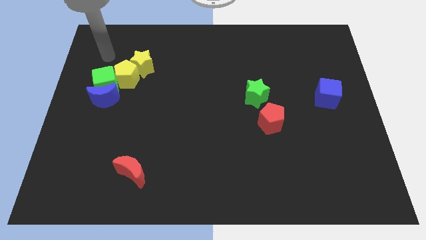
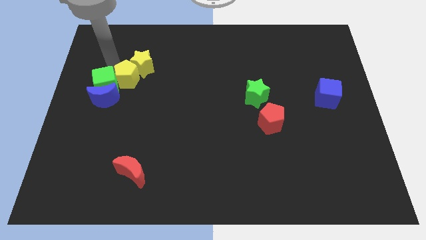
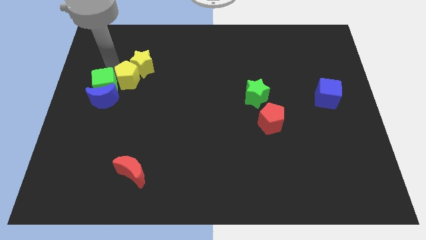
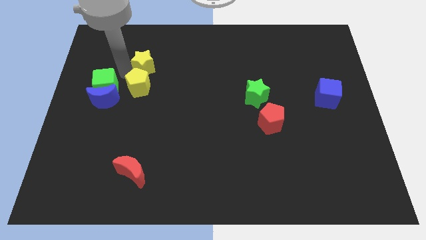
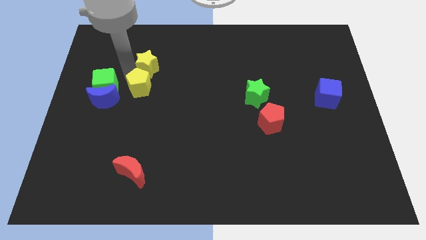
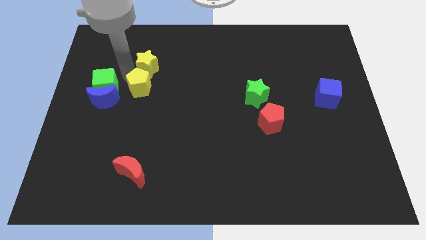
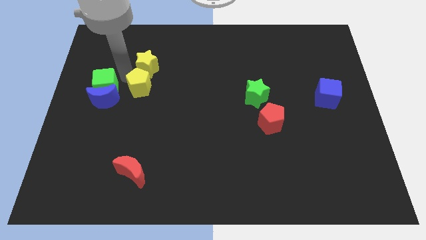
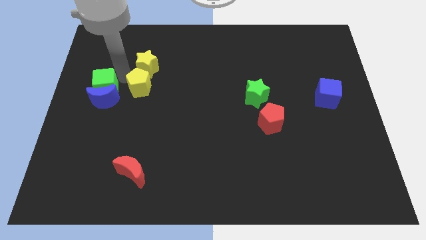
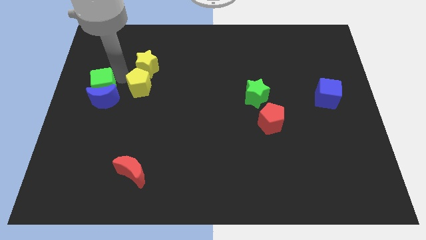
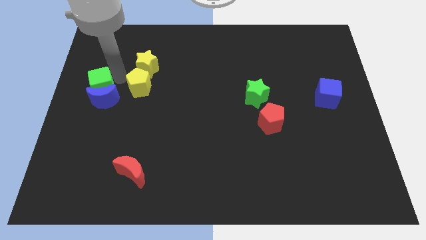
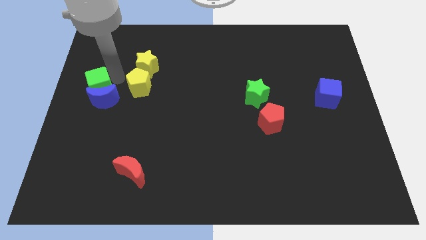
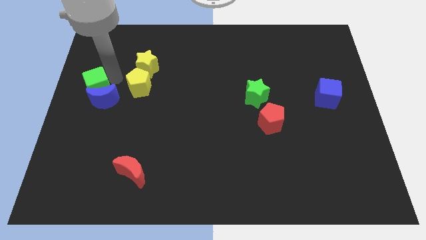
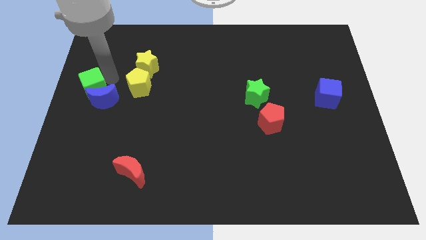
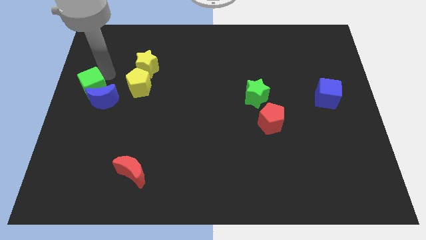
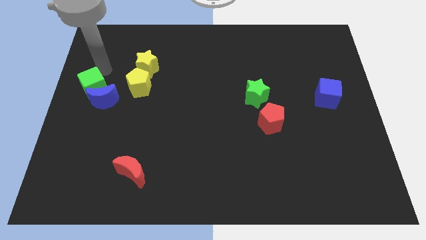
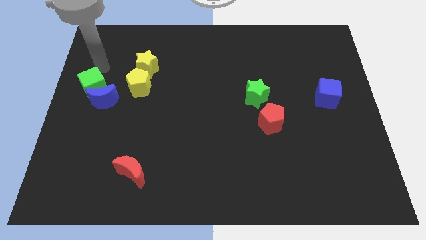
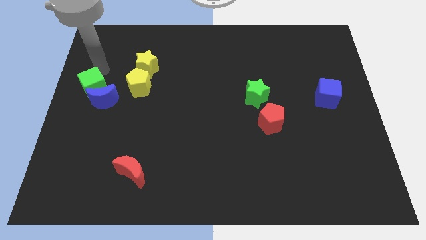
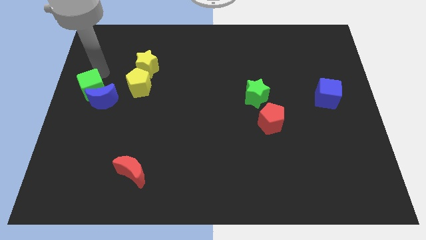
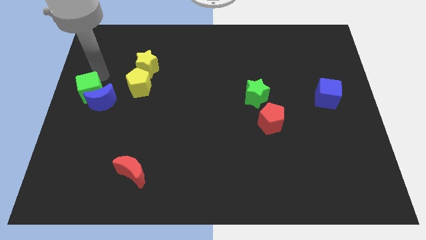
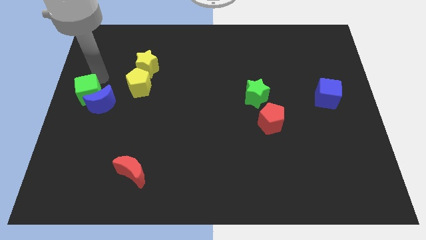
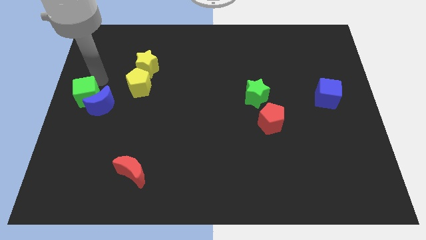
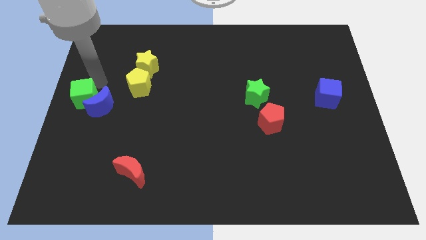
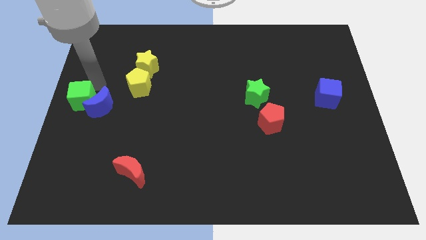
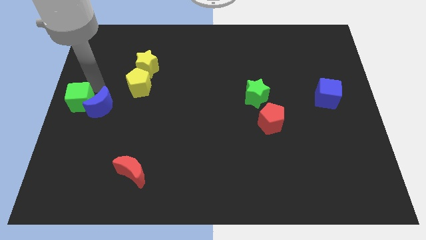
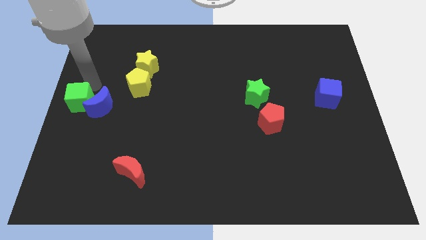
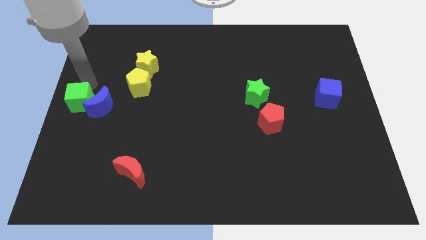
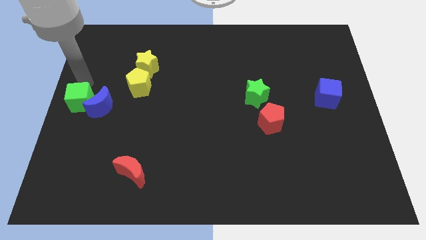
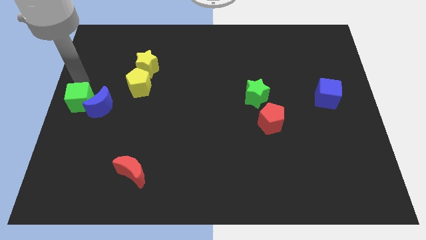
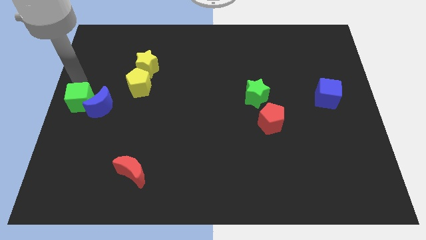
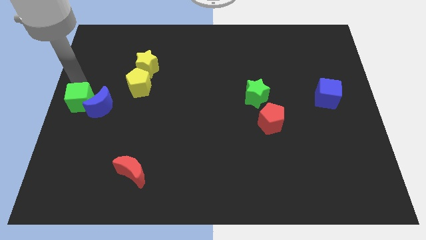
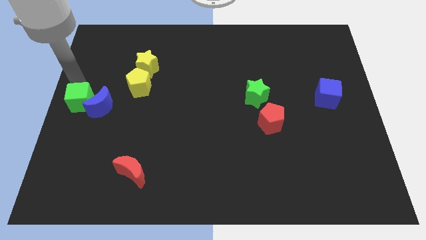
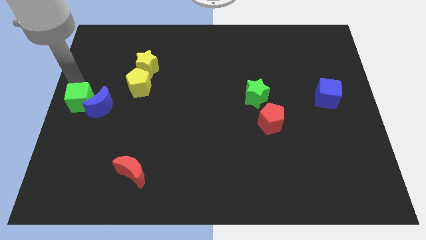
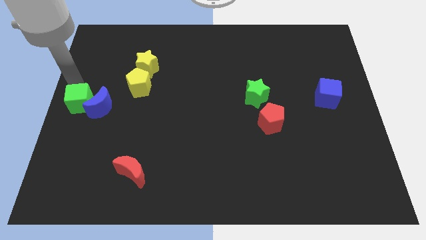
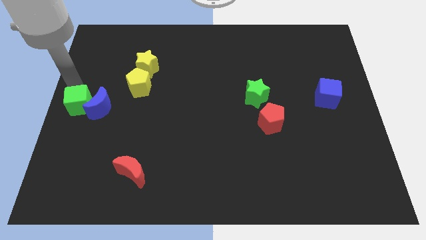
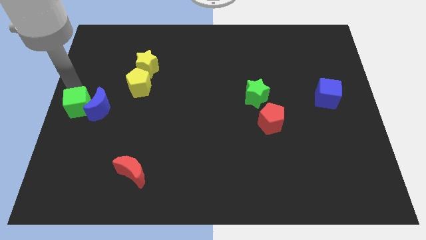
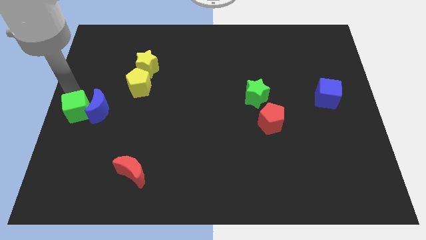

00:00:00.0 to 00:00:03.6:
slide the green cube a bit downwards

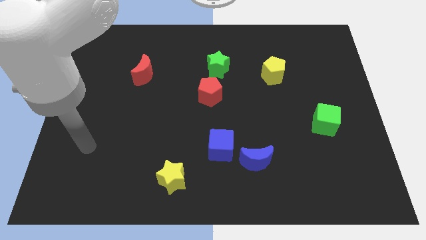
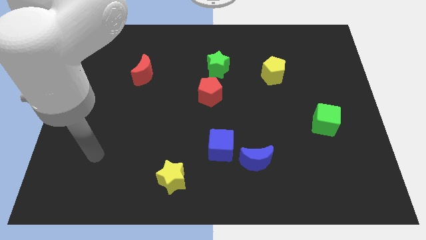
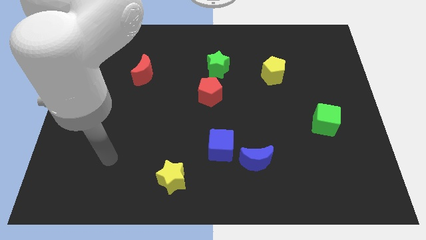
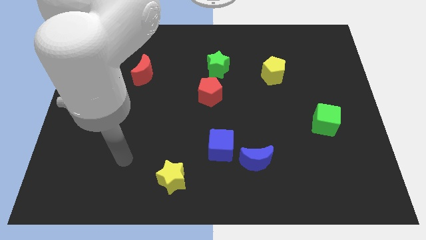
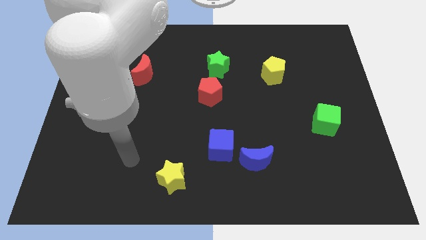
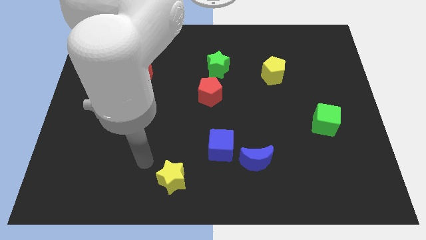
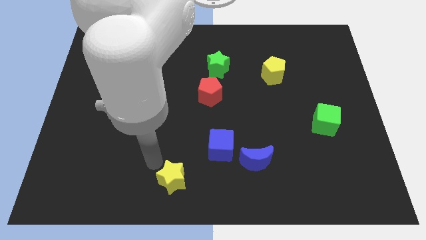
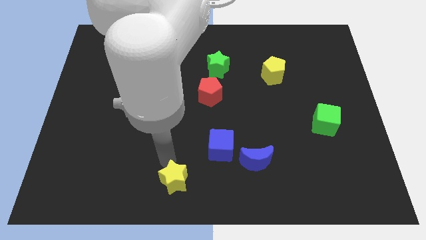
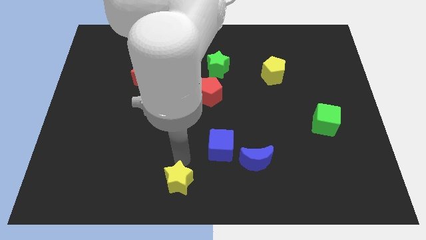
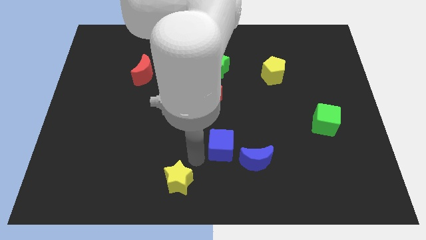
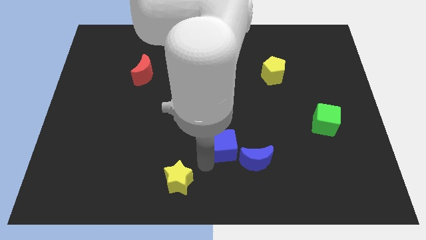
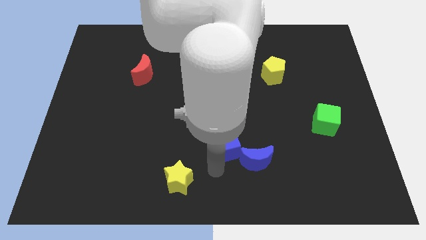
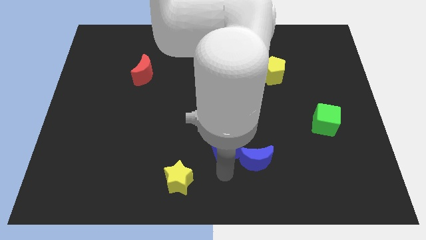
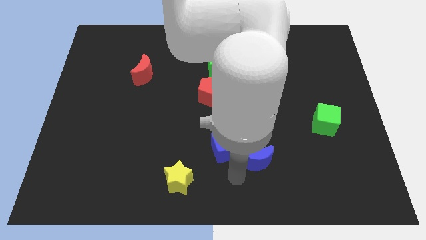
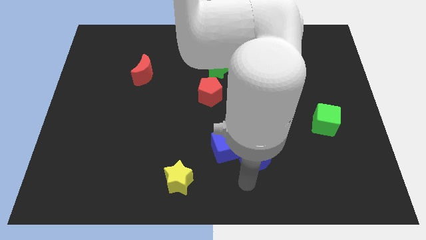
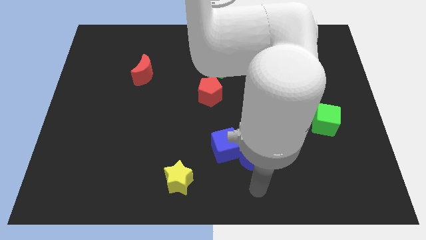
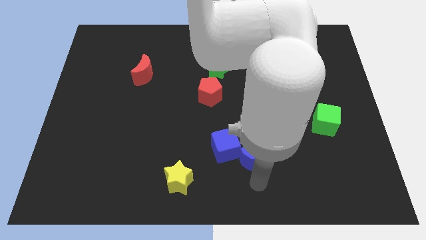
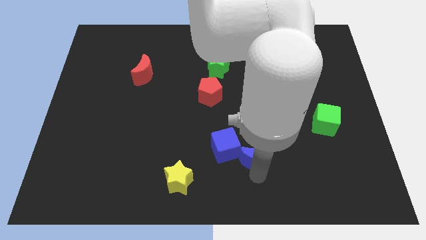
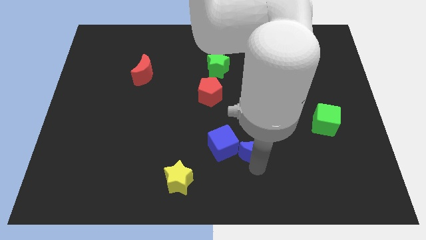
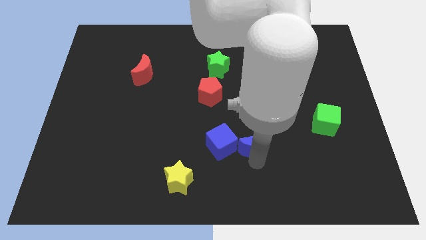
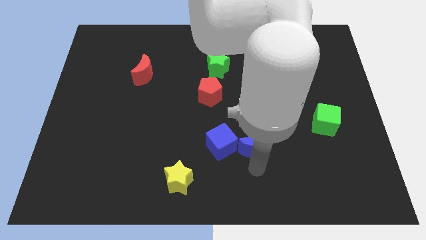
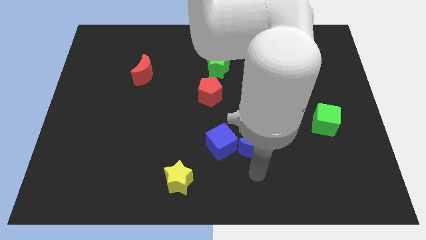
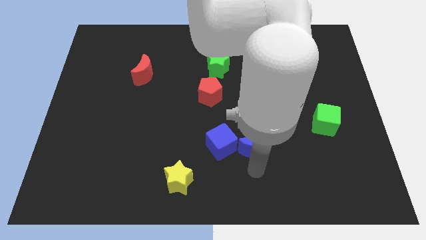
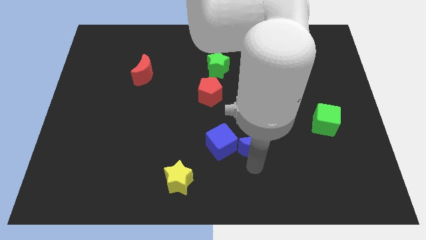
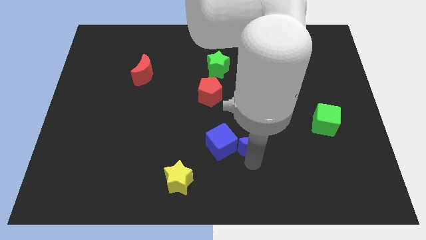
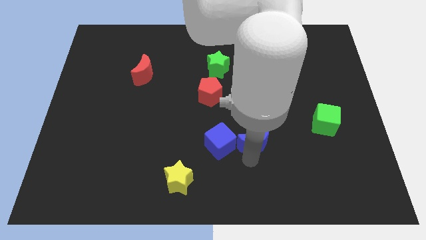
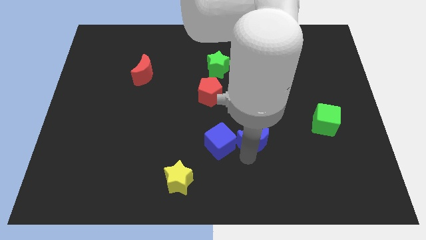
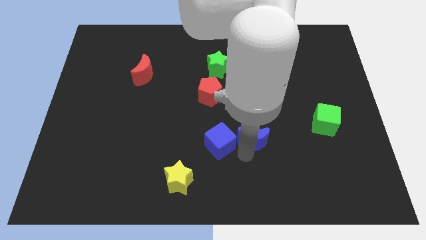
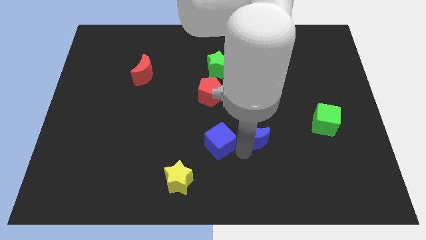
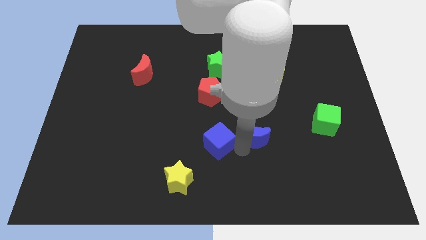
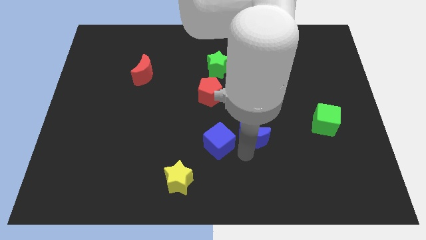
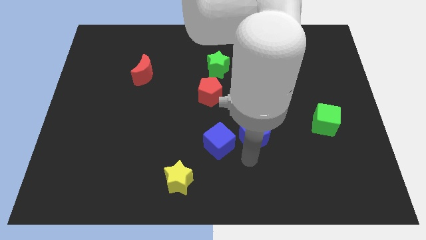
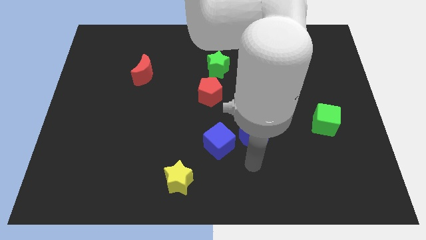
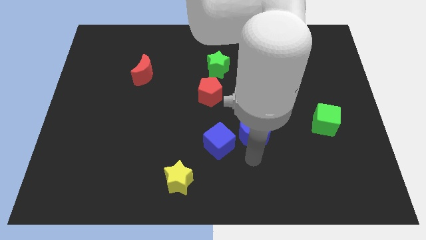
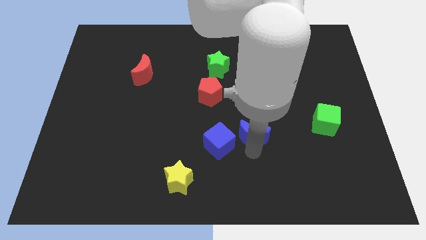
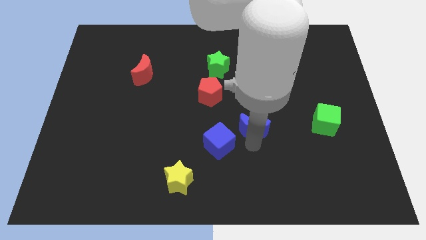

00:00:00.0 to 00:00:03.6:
slightly move the blue moon upwards

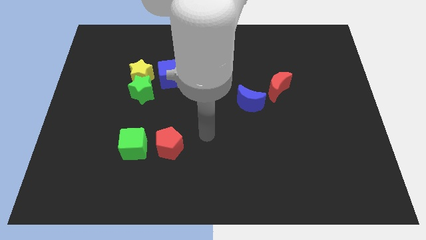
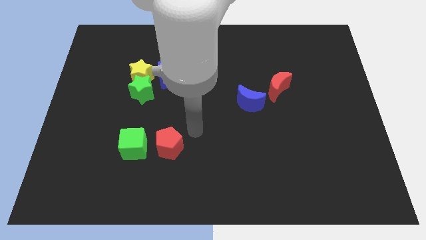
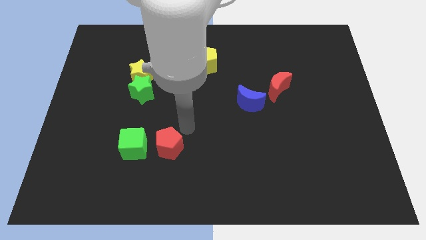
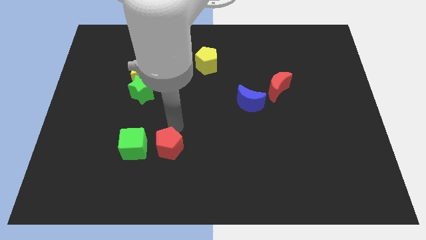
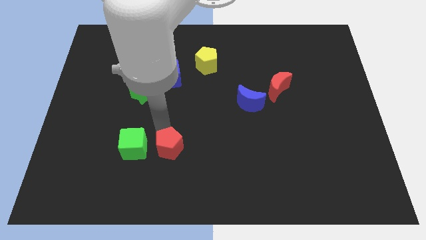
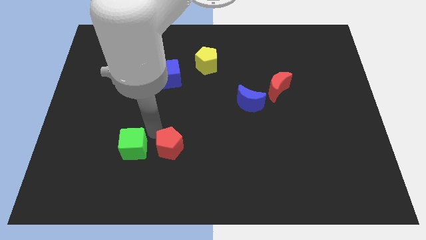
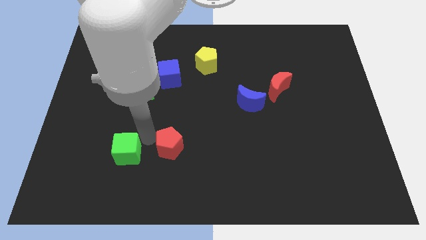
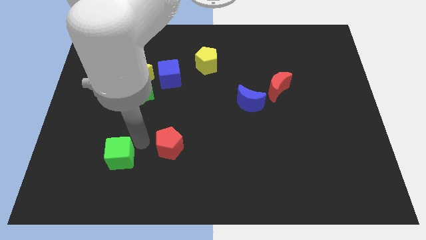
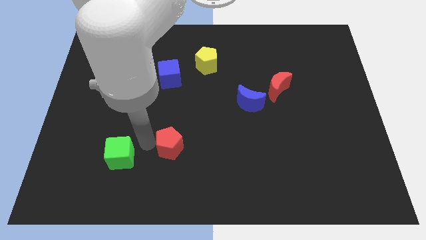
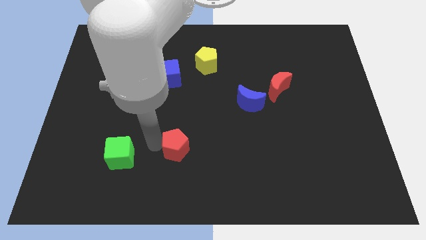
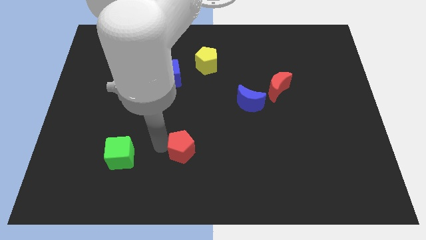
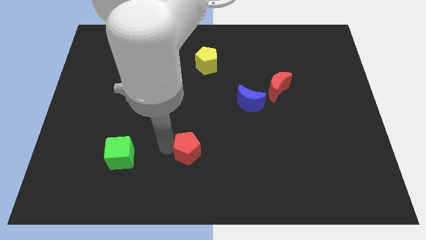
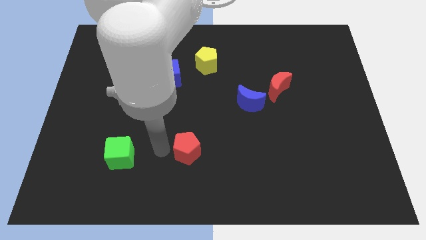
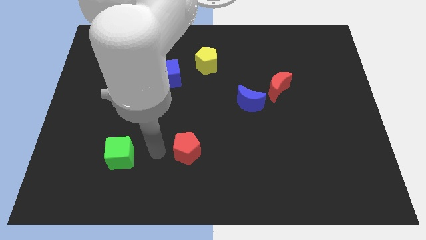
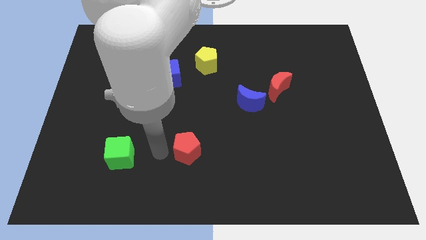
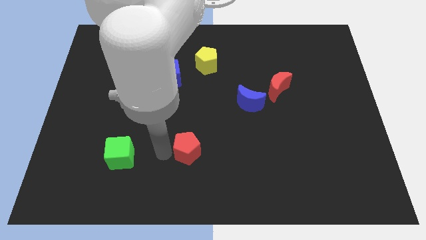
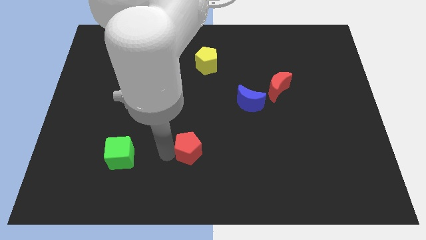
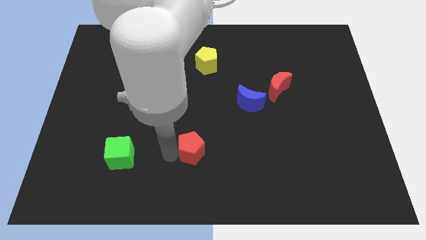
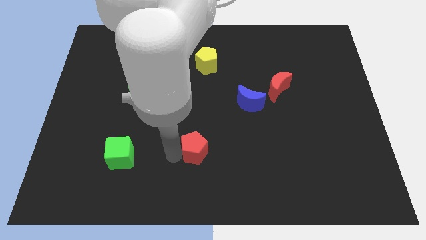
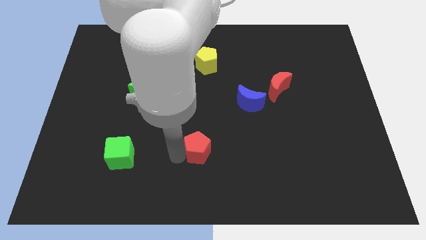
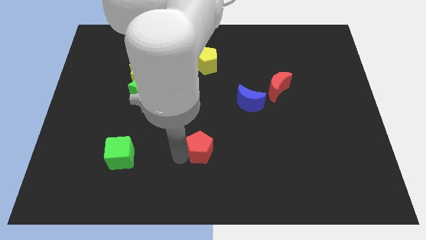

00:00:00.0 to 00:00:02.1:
push the red pentagon to the right somewhat
